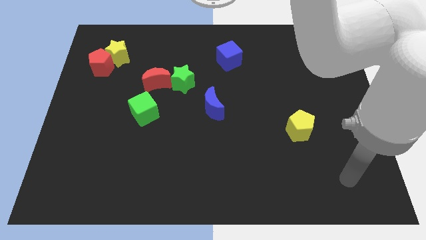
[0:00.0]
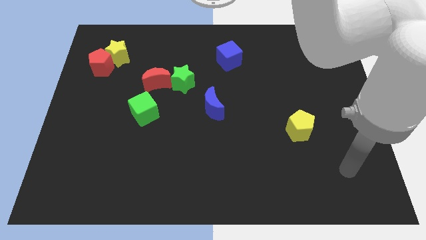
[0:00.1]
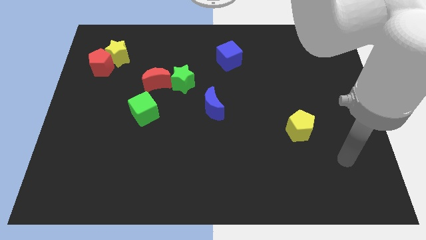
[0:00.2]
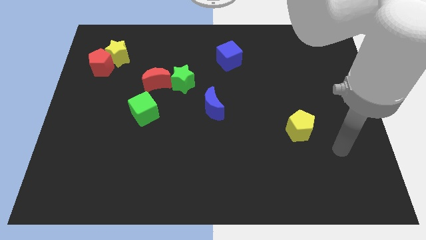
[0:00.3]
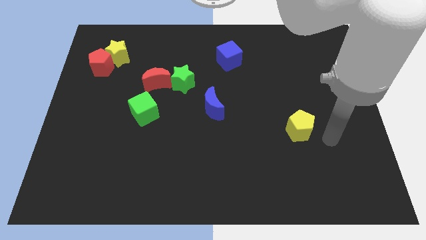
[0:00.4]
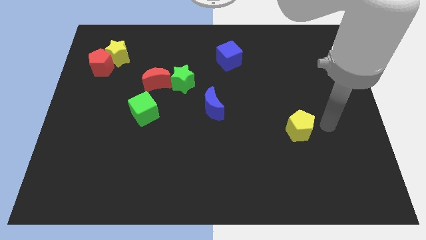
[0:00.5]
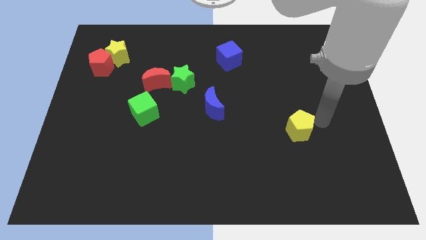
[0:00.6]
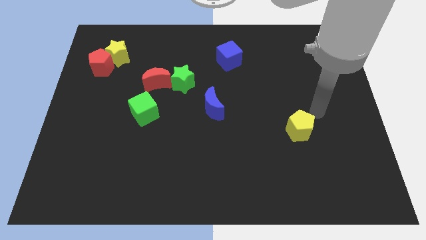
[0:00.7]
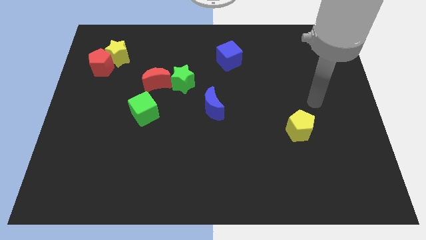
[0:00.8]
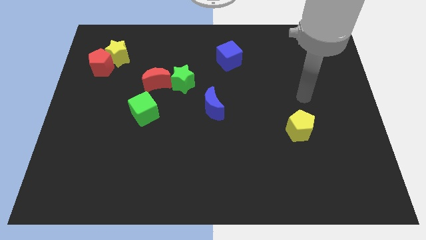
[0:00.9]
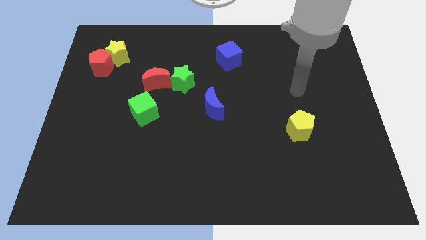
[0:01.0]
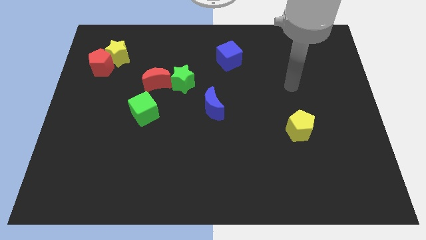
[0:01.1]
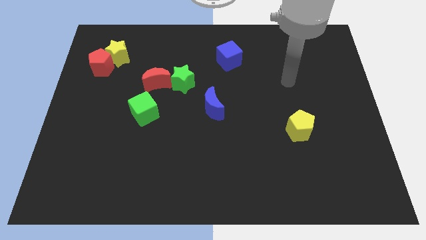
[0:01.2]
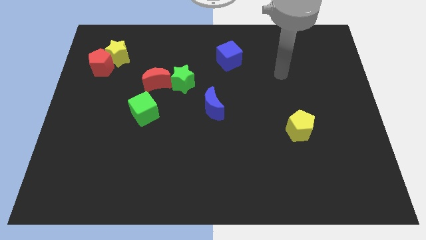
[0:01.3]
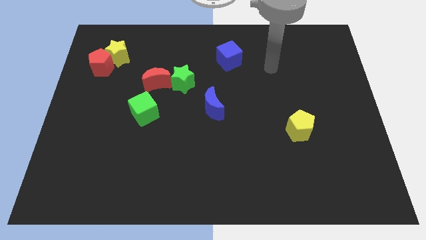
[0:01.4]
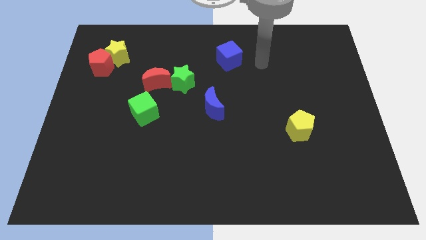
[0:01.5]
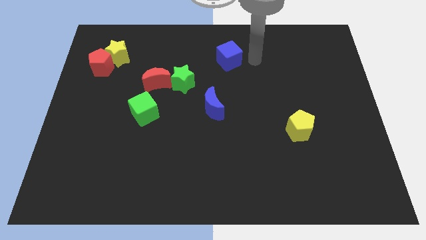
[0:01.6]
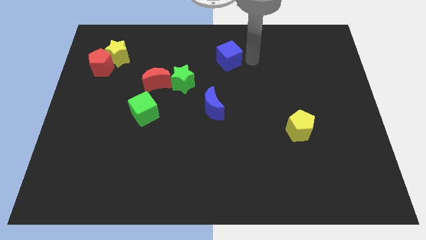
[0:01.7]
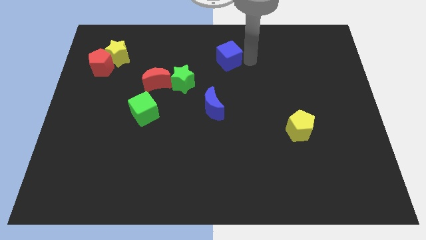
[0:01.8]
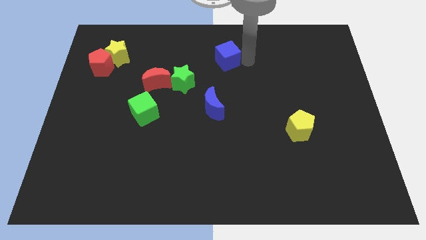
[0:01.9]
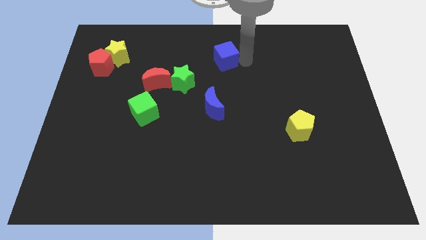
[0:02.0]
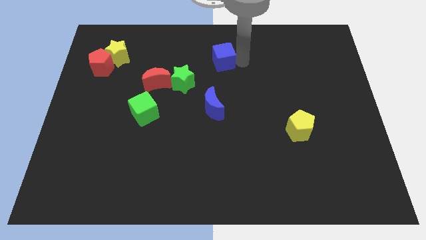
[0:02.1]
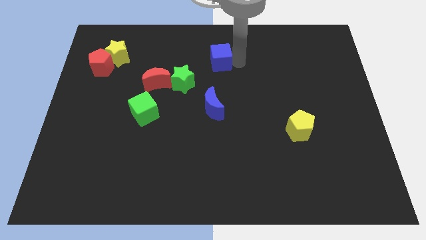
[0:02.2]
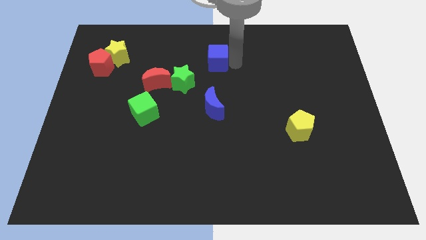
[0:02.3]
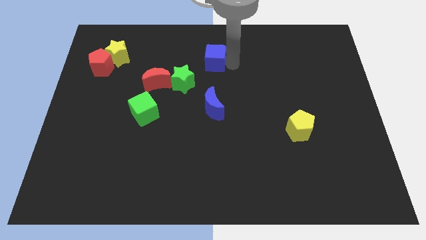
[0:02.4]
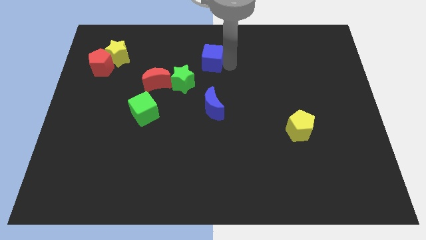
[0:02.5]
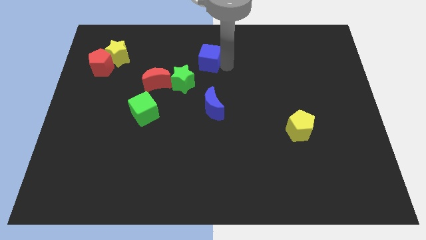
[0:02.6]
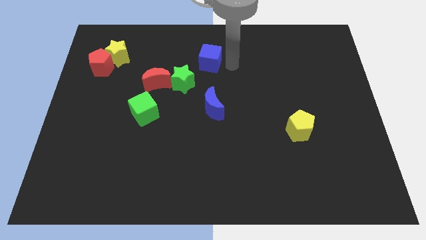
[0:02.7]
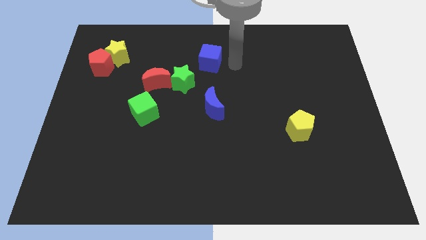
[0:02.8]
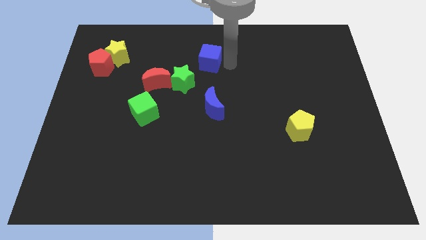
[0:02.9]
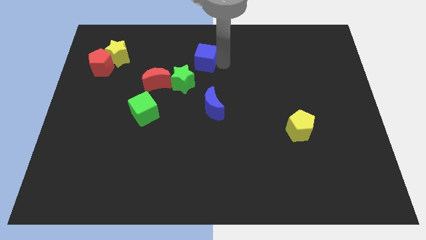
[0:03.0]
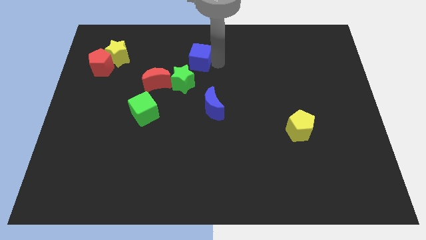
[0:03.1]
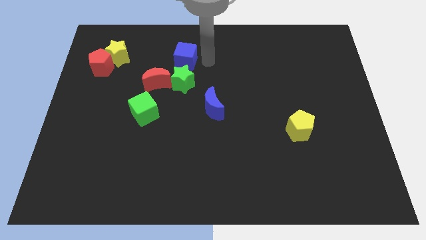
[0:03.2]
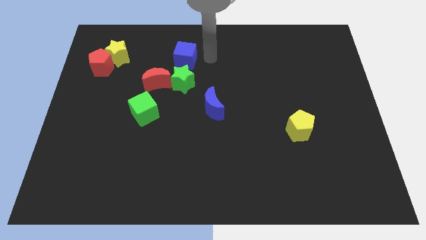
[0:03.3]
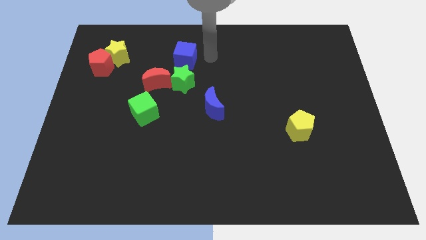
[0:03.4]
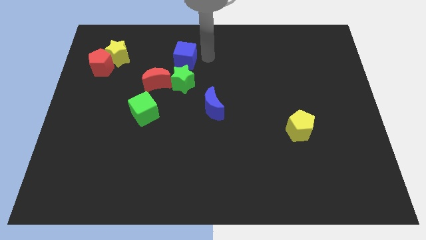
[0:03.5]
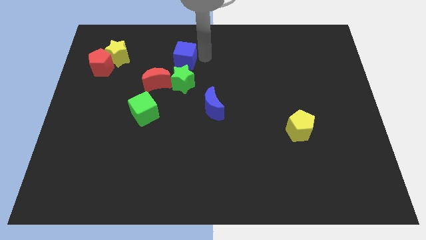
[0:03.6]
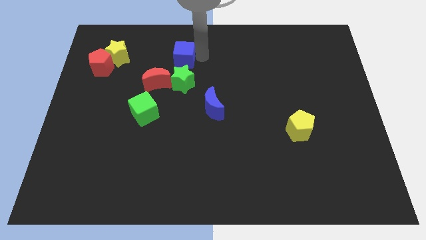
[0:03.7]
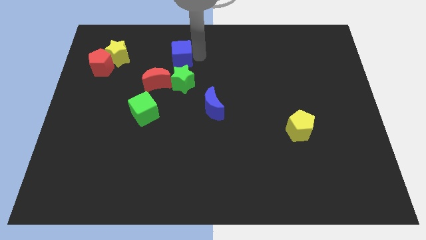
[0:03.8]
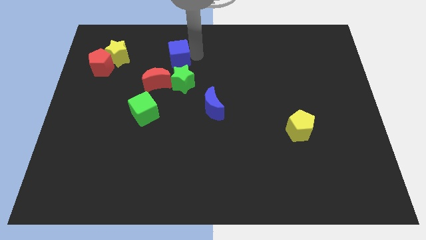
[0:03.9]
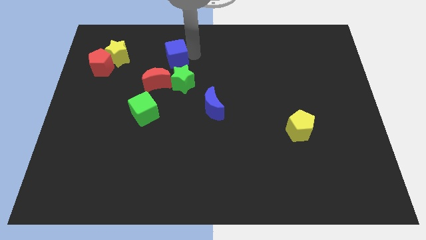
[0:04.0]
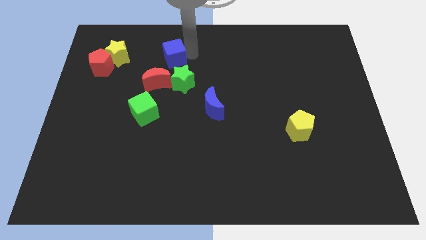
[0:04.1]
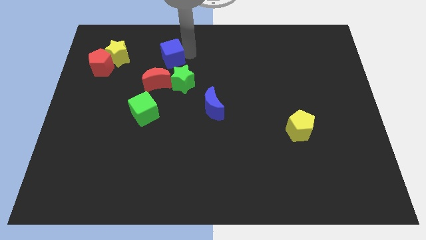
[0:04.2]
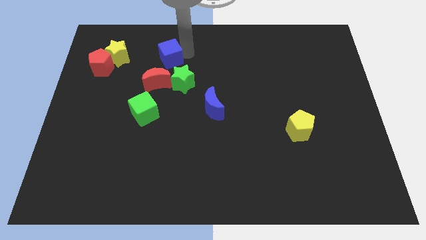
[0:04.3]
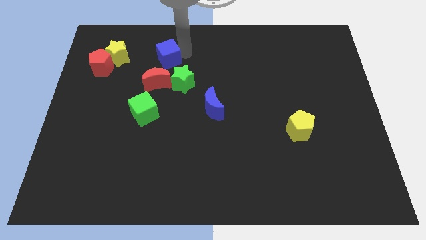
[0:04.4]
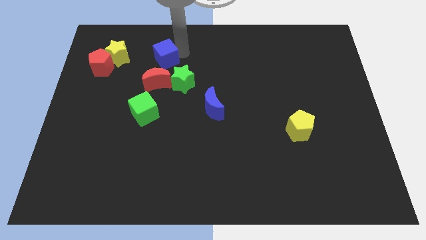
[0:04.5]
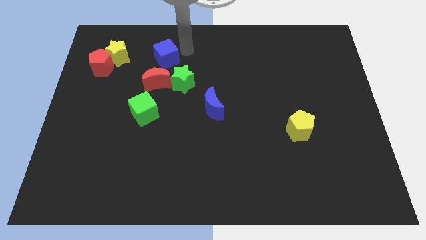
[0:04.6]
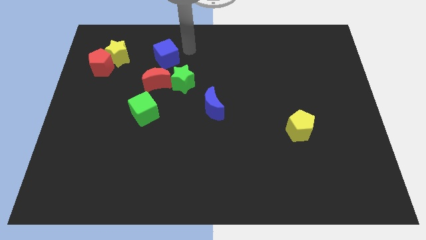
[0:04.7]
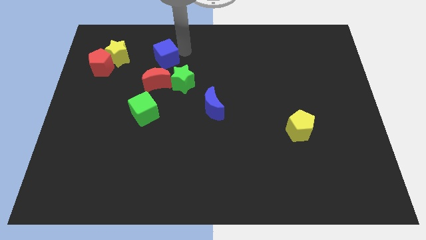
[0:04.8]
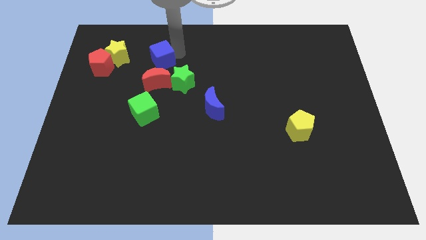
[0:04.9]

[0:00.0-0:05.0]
slide the blue cube right of the red pentagon

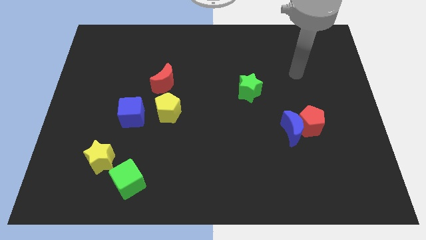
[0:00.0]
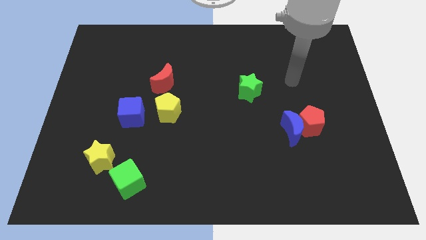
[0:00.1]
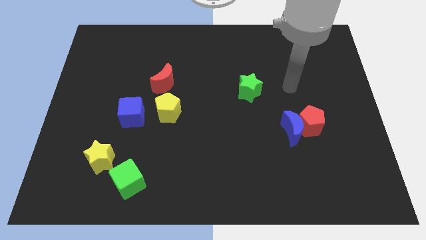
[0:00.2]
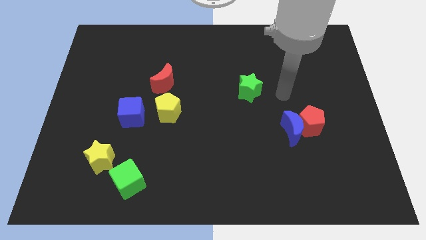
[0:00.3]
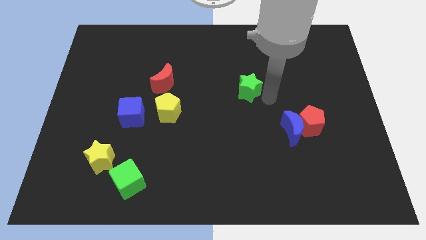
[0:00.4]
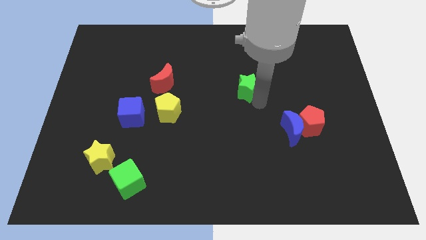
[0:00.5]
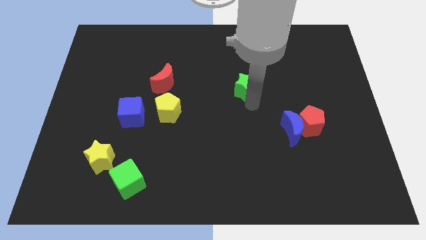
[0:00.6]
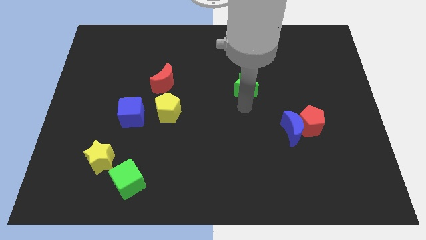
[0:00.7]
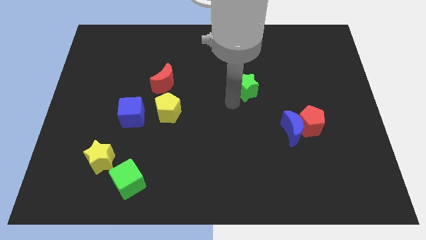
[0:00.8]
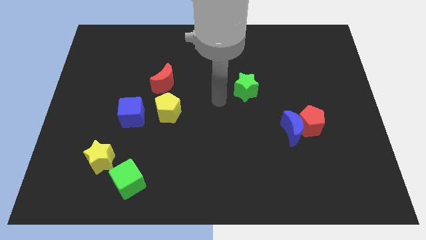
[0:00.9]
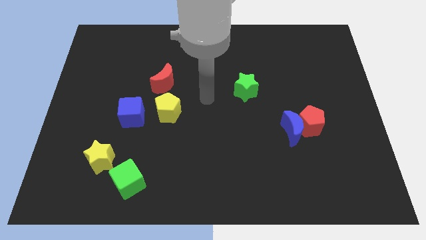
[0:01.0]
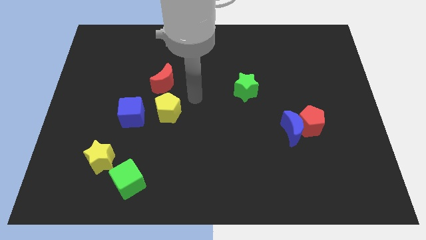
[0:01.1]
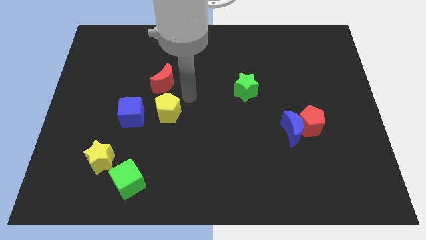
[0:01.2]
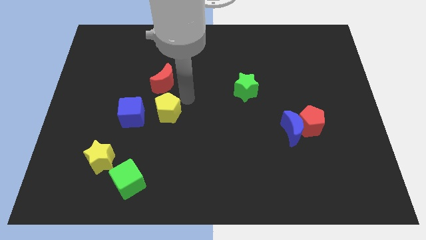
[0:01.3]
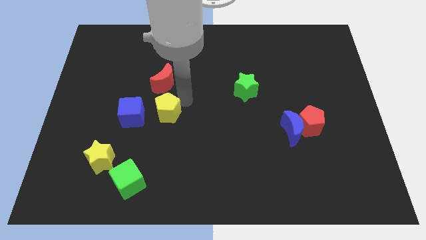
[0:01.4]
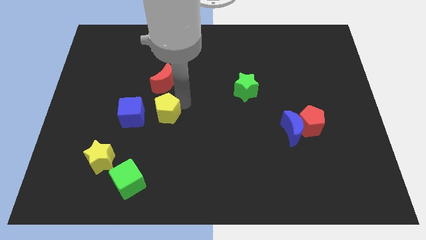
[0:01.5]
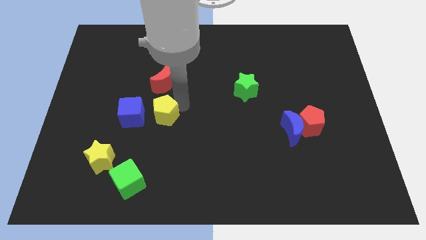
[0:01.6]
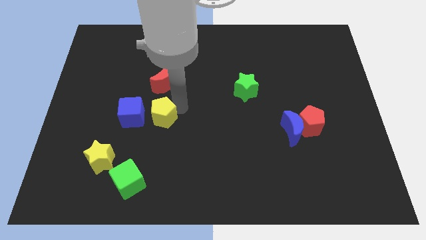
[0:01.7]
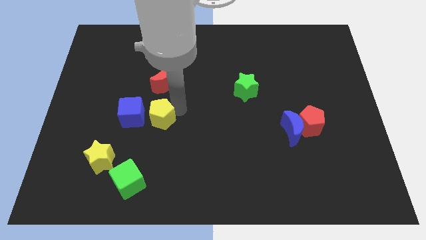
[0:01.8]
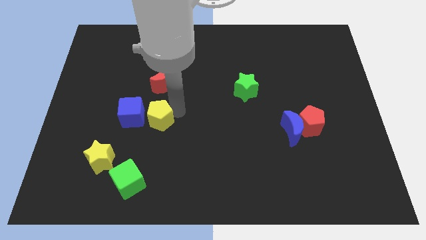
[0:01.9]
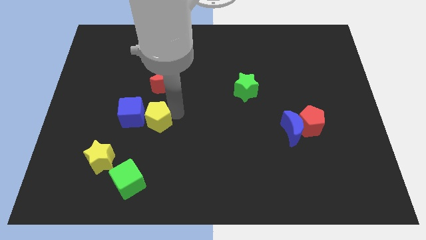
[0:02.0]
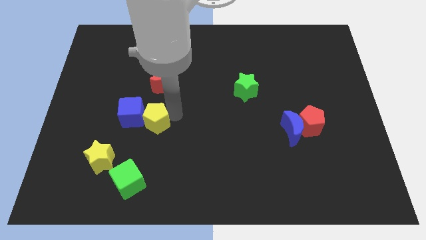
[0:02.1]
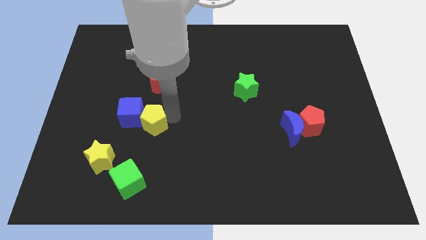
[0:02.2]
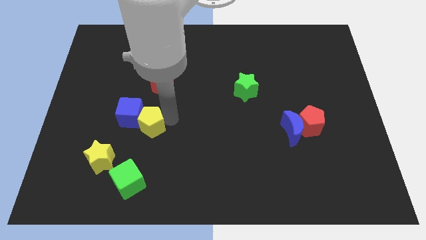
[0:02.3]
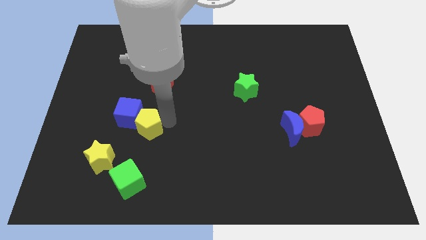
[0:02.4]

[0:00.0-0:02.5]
push the yellow pentagon diagonally up and to the right of the yellow star

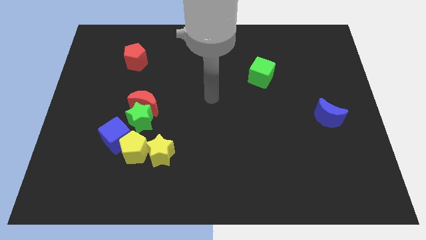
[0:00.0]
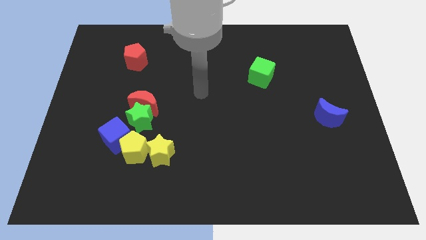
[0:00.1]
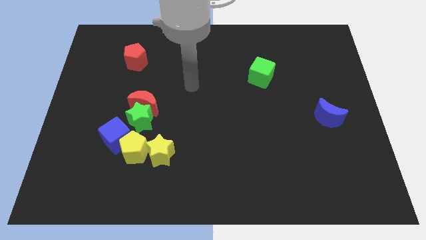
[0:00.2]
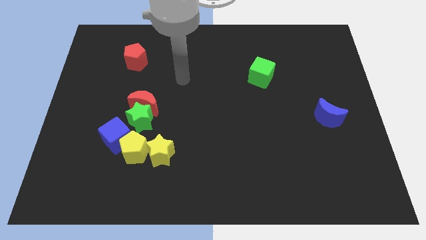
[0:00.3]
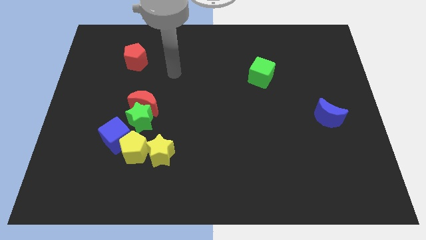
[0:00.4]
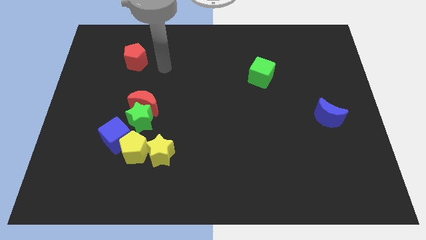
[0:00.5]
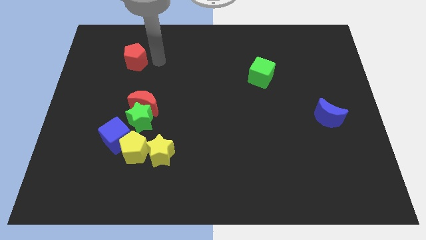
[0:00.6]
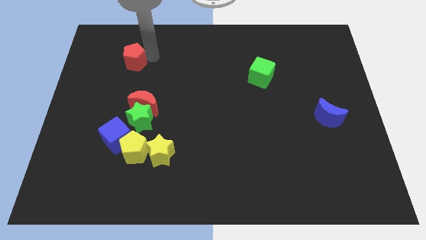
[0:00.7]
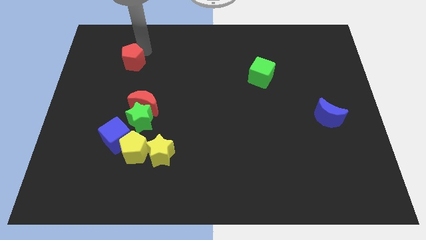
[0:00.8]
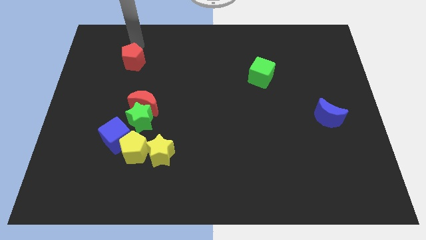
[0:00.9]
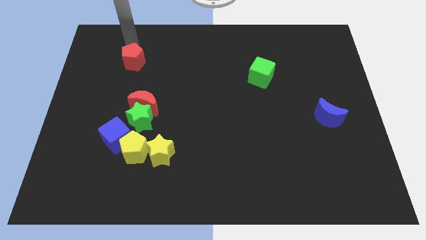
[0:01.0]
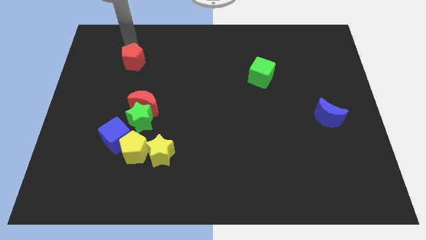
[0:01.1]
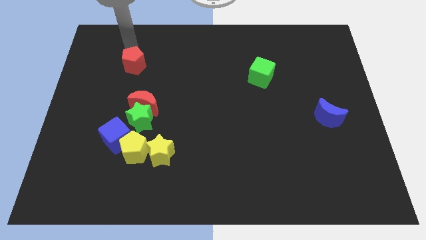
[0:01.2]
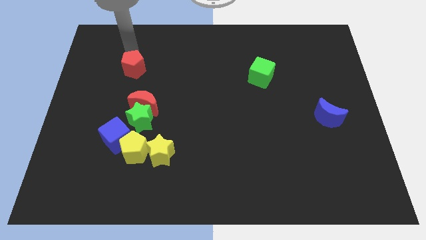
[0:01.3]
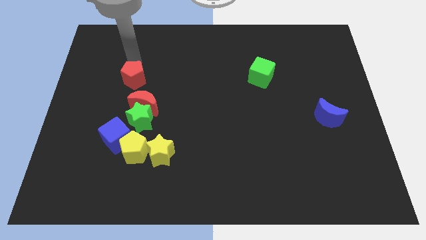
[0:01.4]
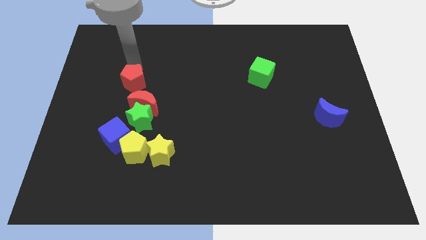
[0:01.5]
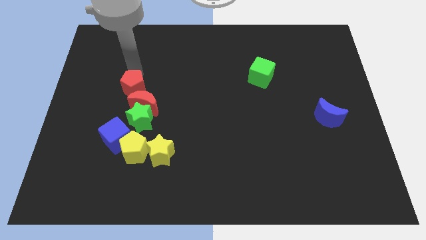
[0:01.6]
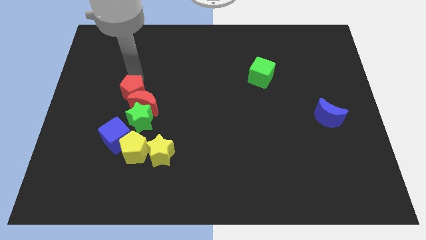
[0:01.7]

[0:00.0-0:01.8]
move the red pentagon to the top left of the green star
